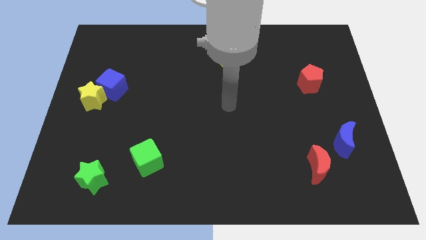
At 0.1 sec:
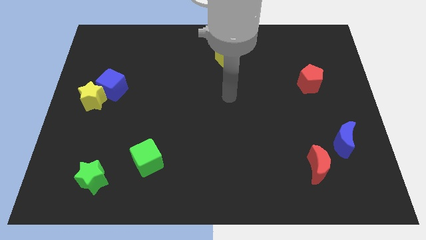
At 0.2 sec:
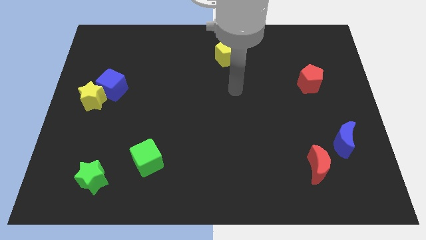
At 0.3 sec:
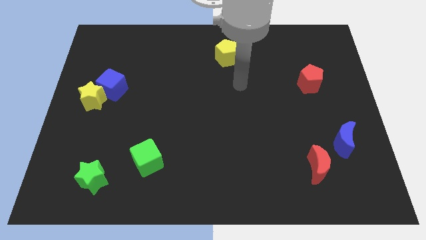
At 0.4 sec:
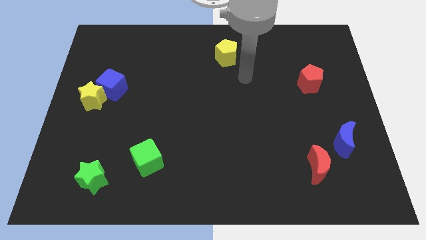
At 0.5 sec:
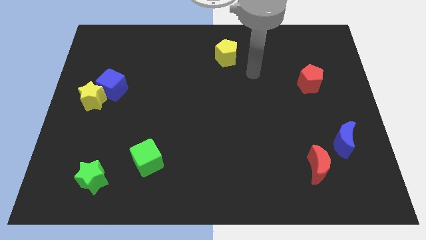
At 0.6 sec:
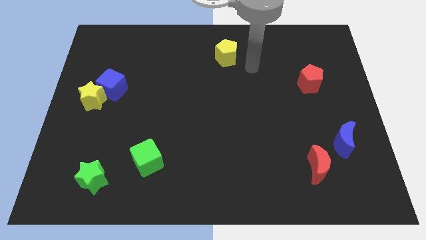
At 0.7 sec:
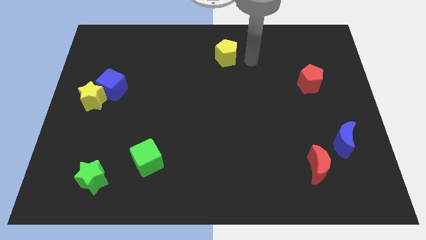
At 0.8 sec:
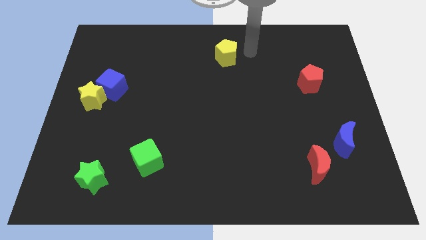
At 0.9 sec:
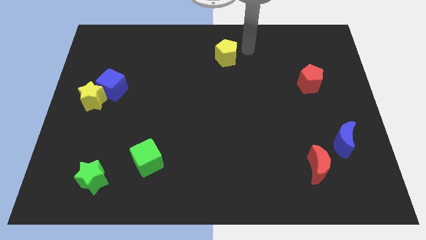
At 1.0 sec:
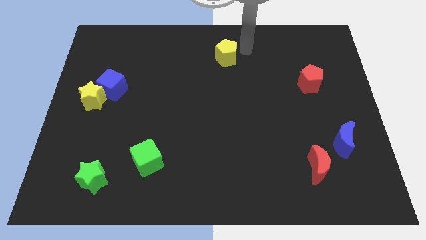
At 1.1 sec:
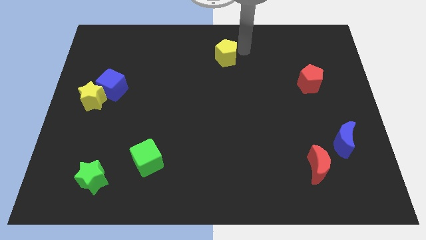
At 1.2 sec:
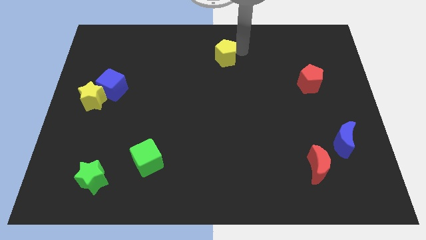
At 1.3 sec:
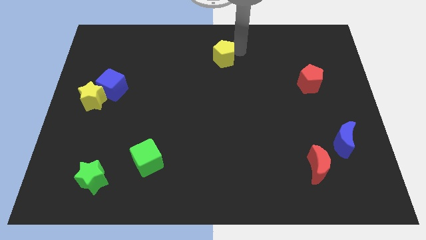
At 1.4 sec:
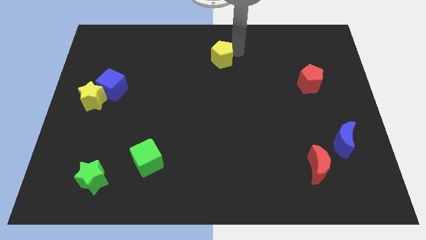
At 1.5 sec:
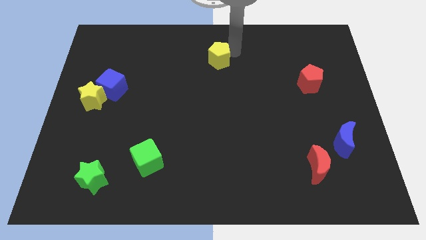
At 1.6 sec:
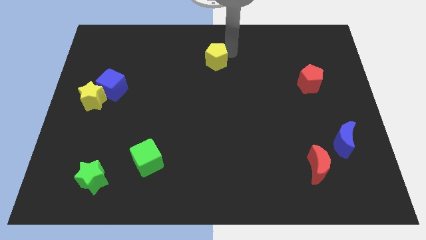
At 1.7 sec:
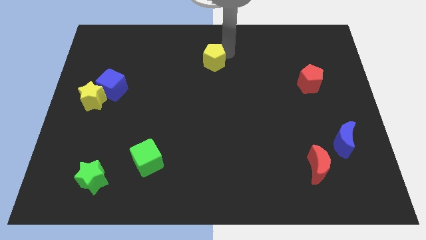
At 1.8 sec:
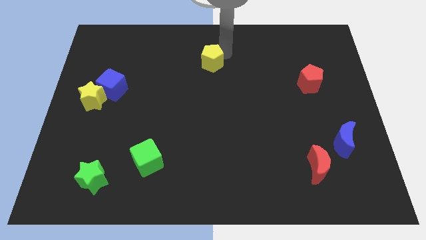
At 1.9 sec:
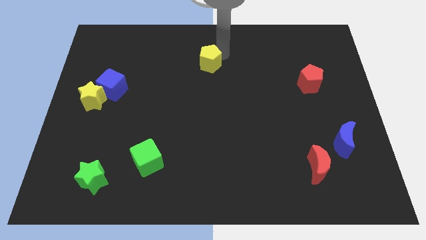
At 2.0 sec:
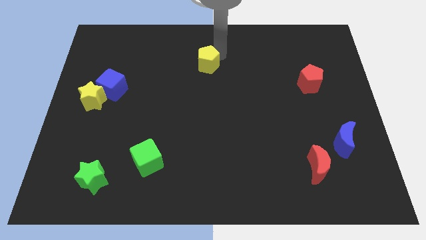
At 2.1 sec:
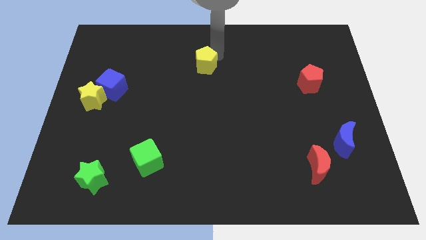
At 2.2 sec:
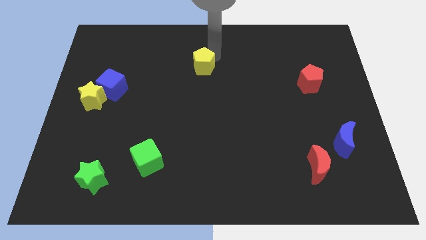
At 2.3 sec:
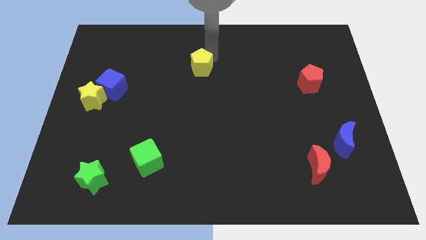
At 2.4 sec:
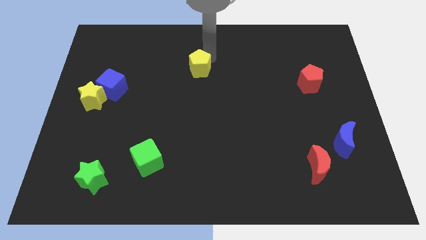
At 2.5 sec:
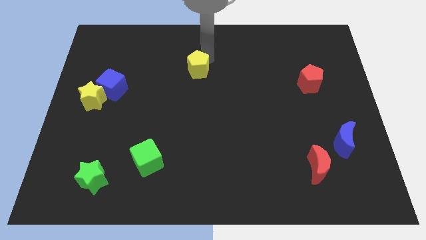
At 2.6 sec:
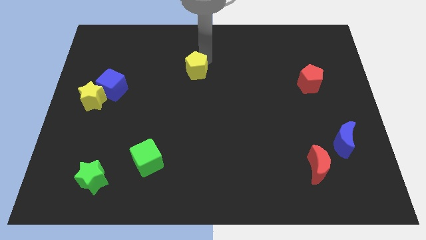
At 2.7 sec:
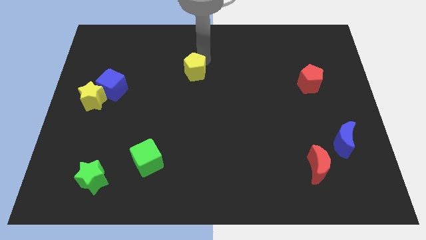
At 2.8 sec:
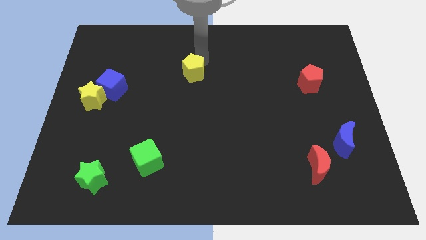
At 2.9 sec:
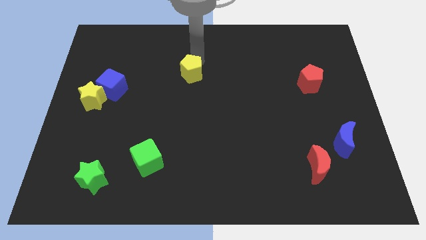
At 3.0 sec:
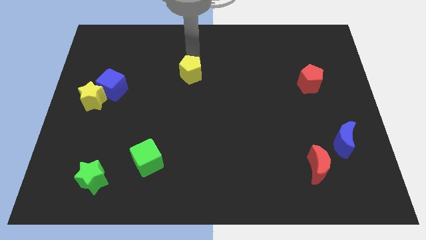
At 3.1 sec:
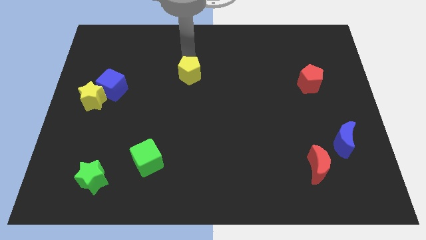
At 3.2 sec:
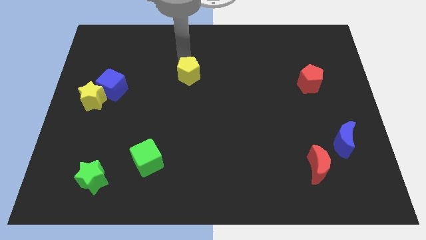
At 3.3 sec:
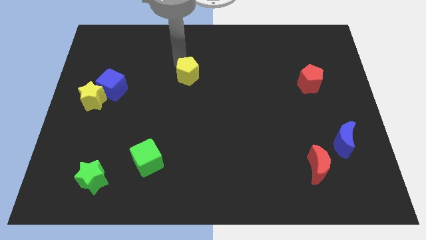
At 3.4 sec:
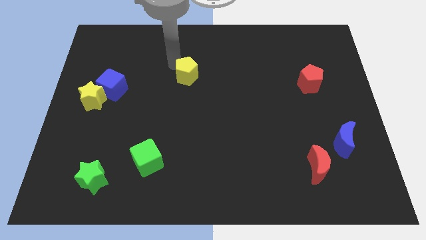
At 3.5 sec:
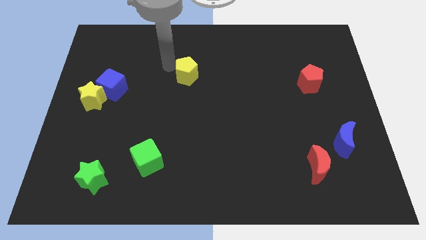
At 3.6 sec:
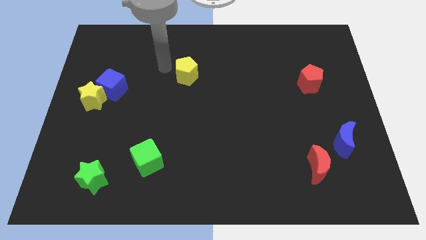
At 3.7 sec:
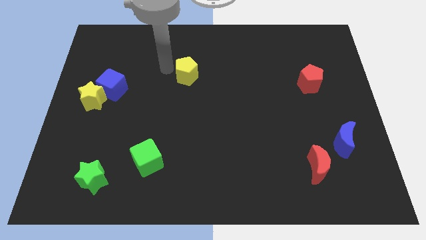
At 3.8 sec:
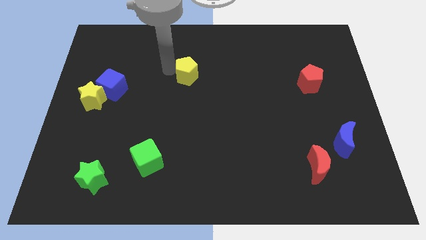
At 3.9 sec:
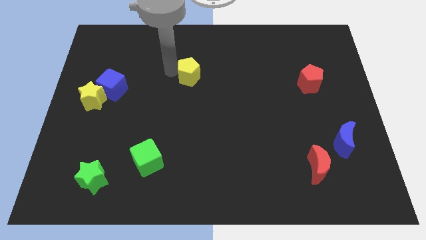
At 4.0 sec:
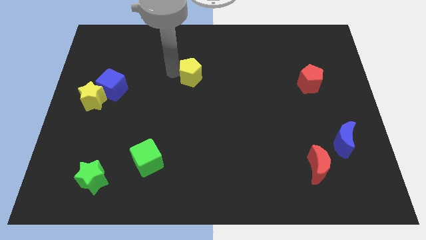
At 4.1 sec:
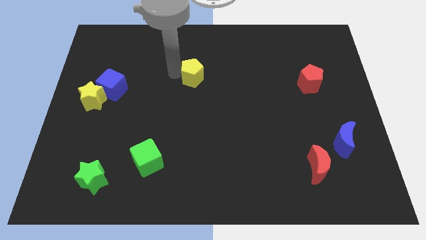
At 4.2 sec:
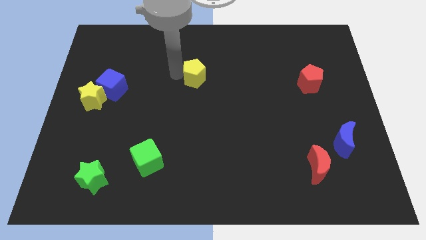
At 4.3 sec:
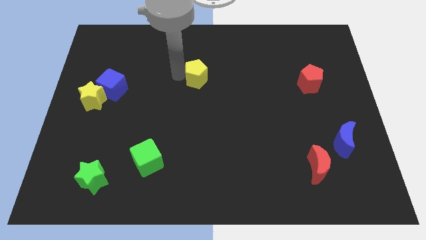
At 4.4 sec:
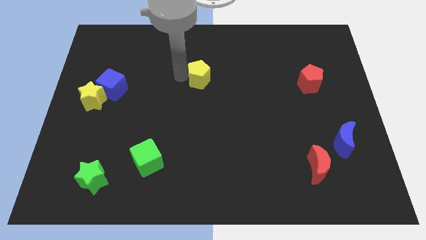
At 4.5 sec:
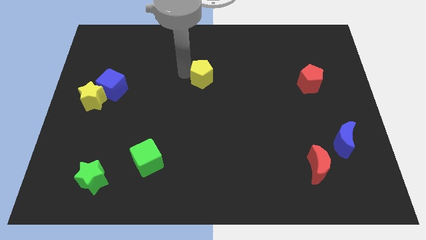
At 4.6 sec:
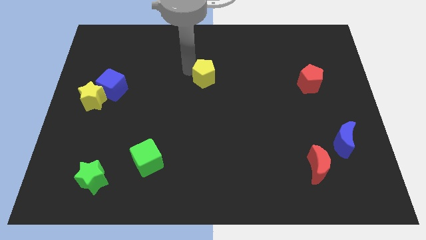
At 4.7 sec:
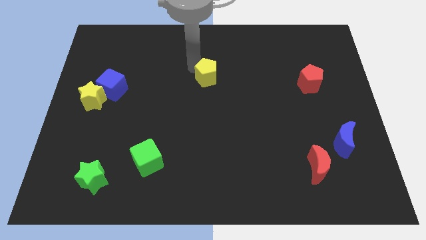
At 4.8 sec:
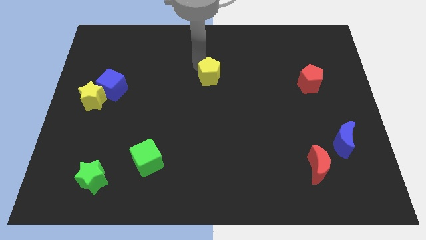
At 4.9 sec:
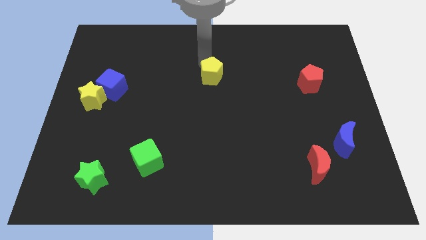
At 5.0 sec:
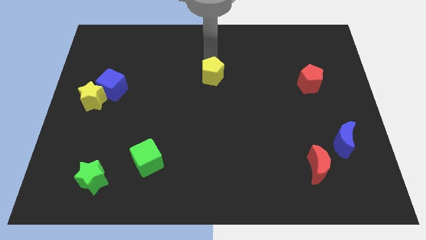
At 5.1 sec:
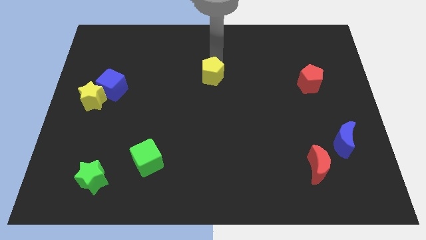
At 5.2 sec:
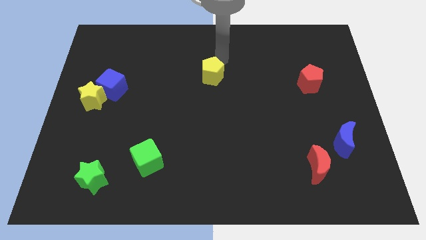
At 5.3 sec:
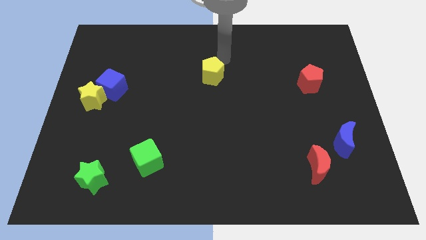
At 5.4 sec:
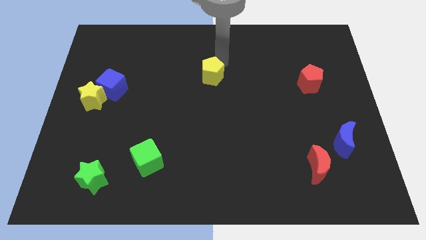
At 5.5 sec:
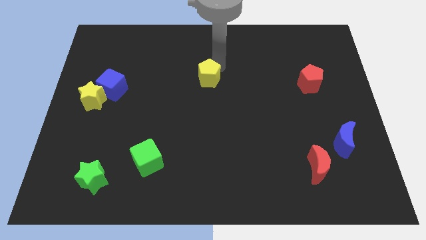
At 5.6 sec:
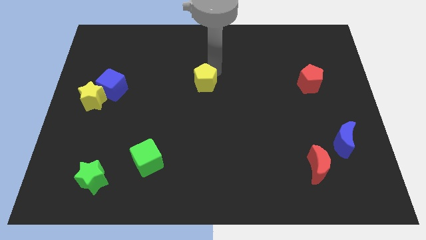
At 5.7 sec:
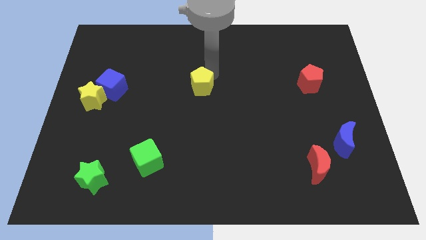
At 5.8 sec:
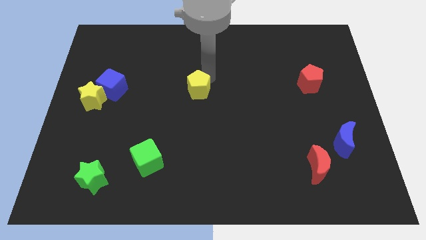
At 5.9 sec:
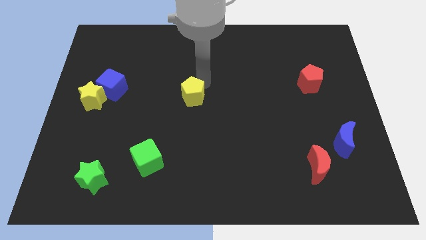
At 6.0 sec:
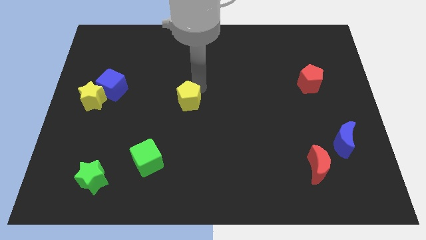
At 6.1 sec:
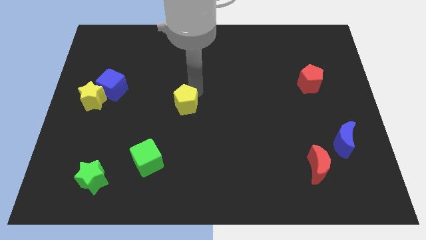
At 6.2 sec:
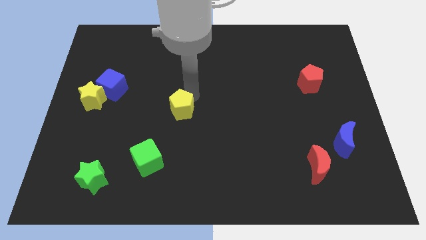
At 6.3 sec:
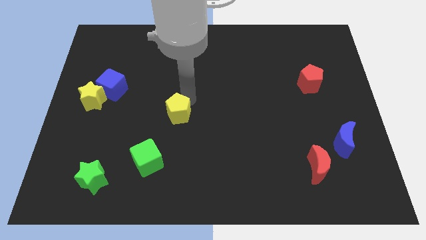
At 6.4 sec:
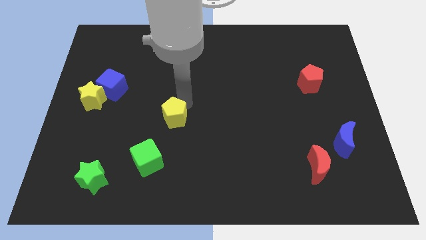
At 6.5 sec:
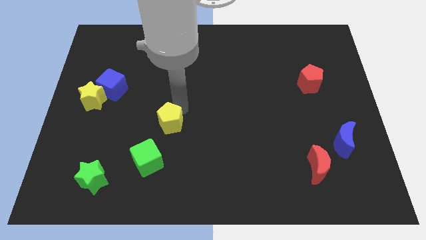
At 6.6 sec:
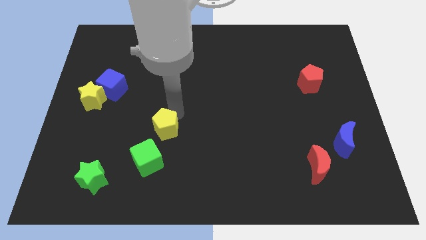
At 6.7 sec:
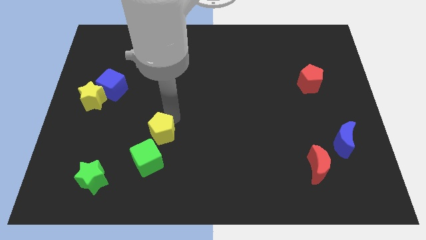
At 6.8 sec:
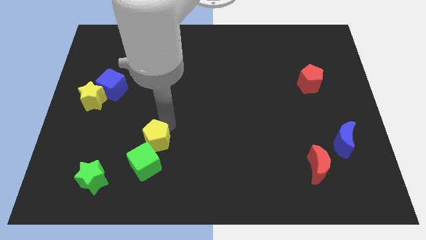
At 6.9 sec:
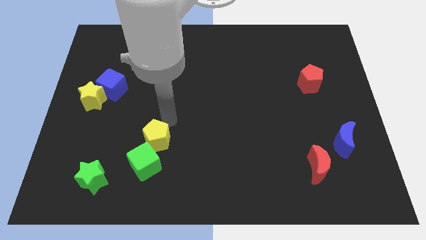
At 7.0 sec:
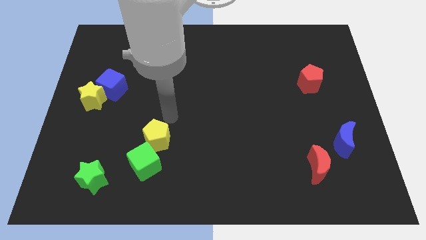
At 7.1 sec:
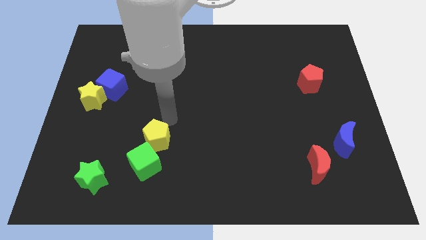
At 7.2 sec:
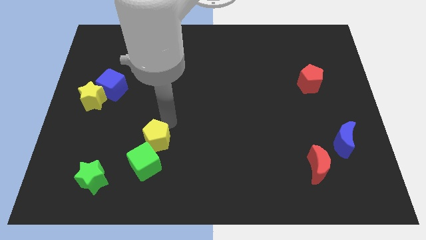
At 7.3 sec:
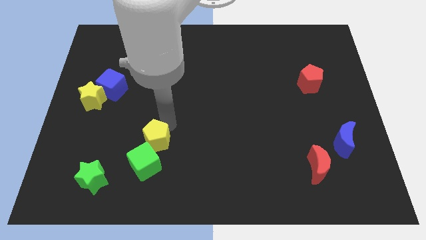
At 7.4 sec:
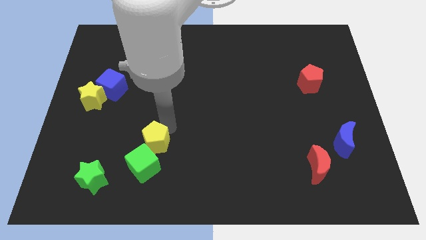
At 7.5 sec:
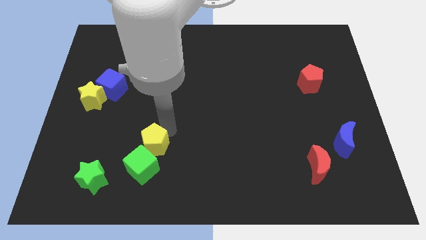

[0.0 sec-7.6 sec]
push the yellow pentagon close to the green cube
